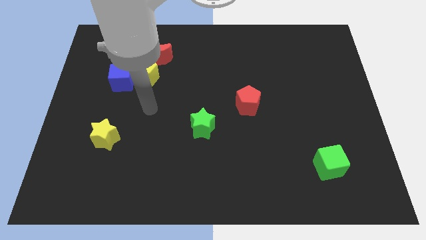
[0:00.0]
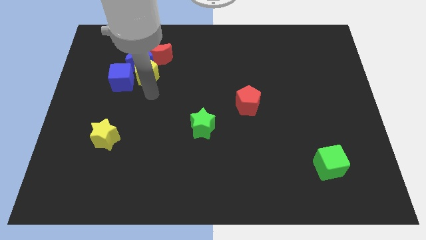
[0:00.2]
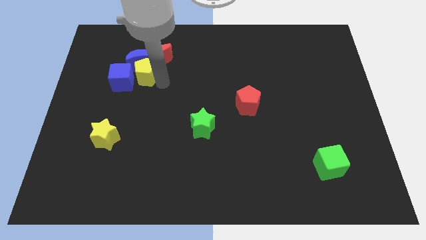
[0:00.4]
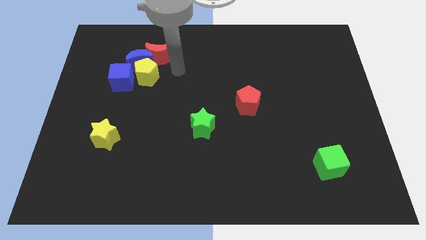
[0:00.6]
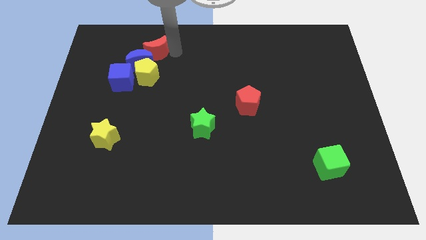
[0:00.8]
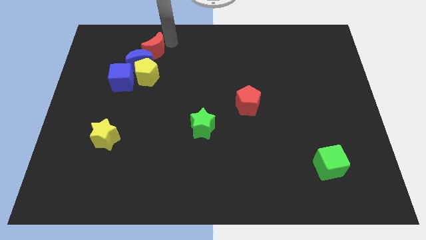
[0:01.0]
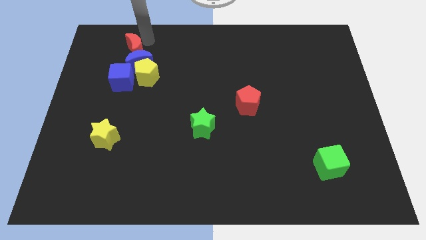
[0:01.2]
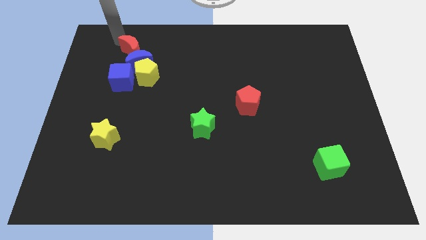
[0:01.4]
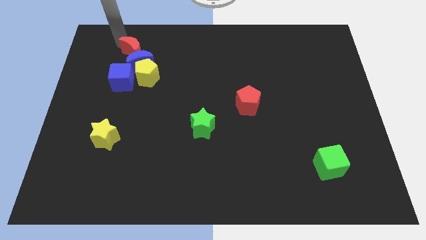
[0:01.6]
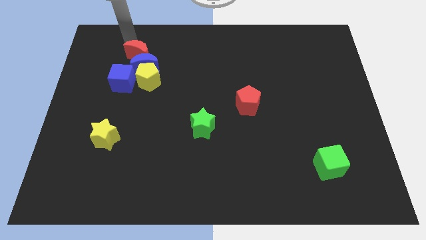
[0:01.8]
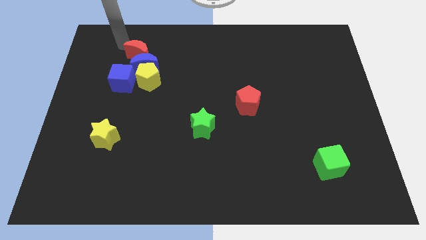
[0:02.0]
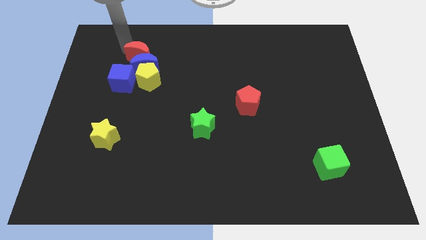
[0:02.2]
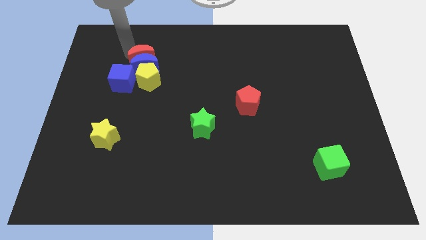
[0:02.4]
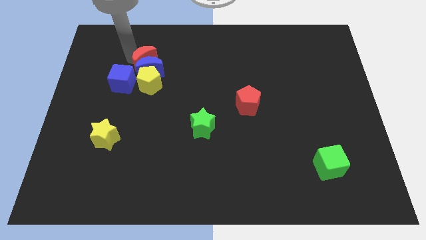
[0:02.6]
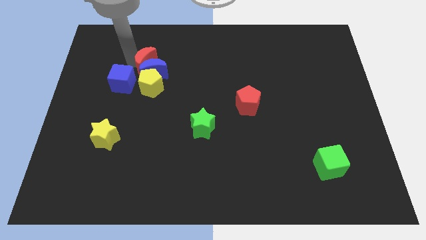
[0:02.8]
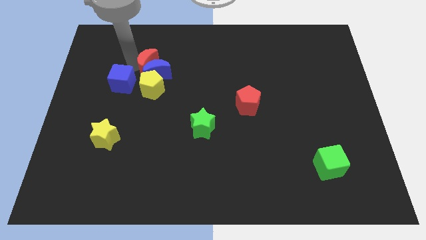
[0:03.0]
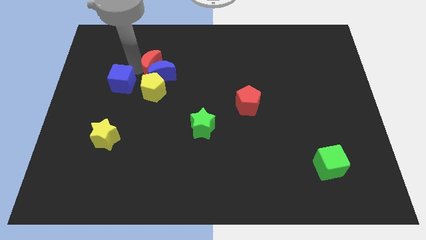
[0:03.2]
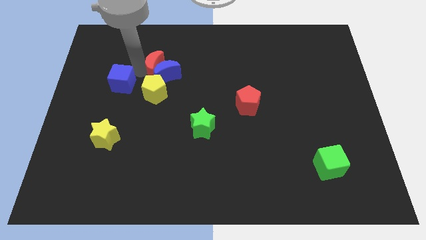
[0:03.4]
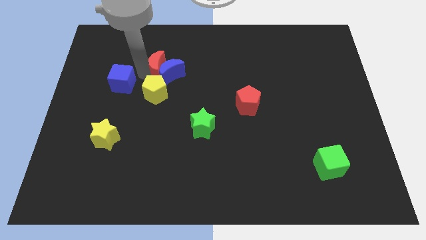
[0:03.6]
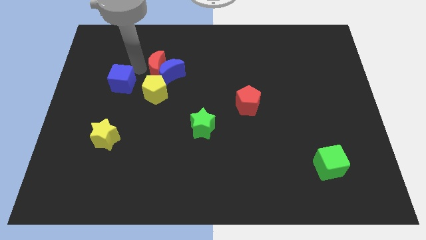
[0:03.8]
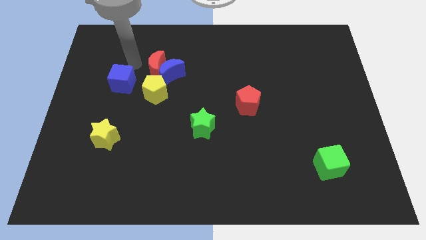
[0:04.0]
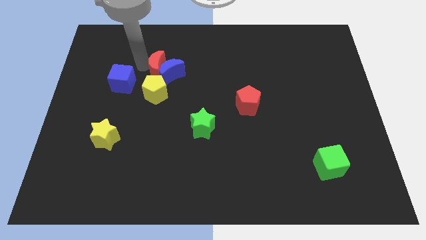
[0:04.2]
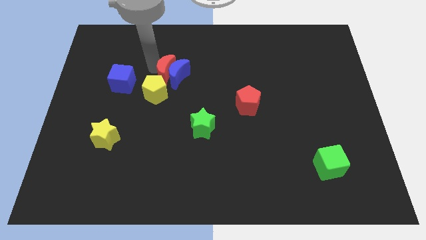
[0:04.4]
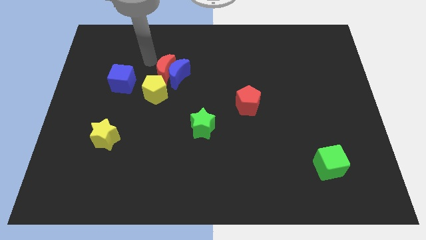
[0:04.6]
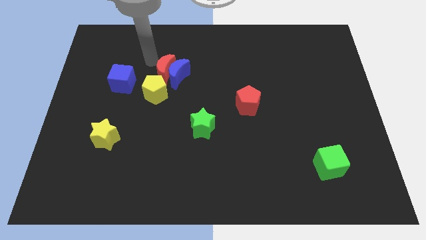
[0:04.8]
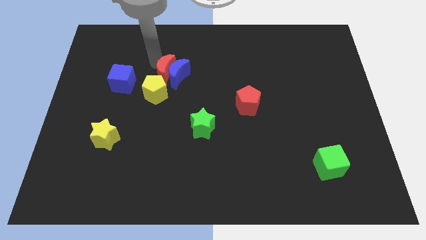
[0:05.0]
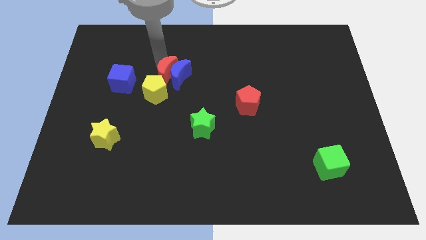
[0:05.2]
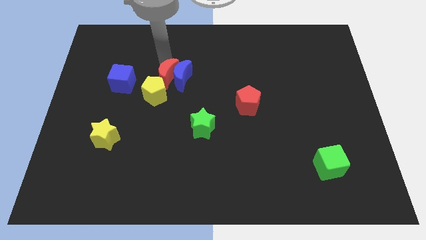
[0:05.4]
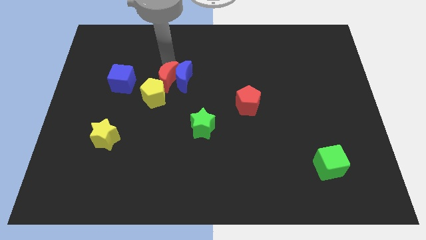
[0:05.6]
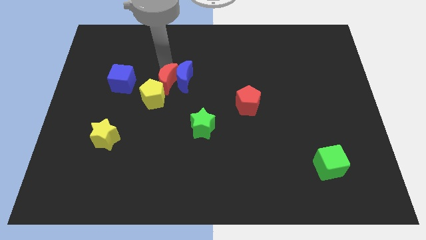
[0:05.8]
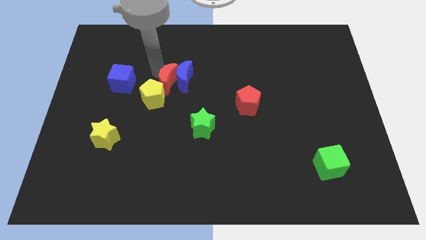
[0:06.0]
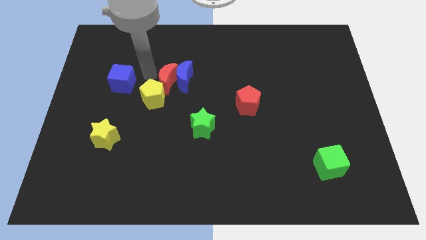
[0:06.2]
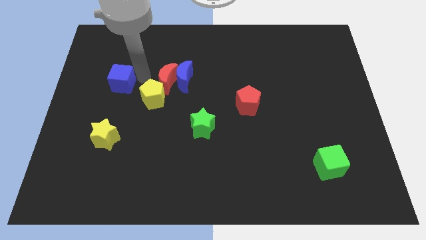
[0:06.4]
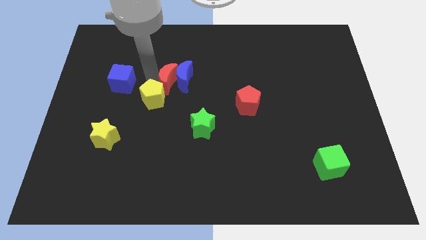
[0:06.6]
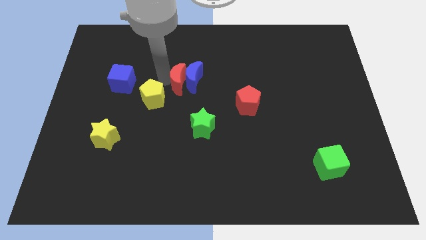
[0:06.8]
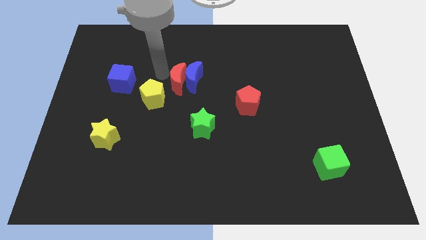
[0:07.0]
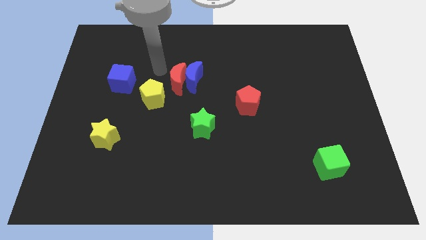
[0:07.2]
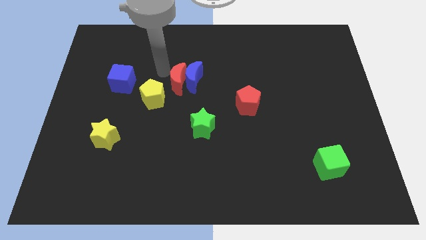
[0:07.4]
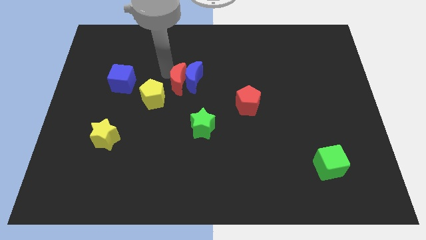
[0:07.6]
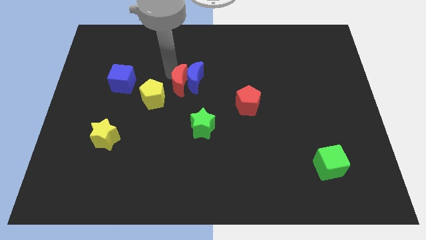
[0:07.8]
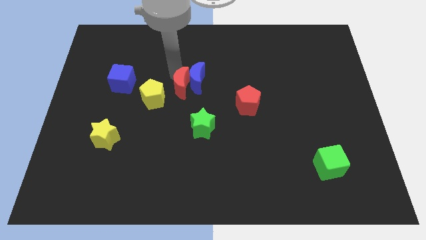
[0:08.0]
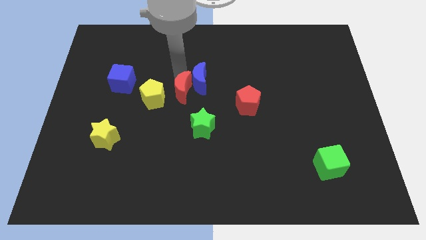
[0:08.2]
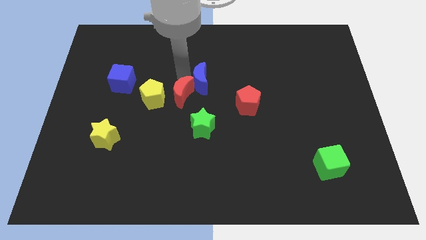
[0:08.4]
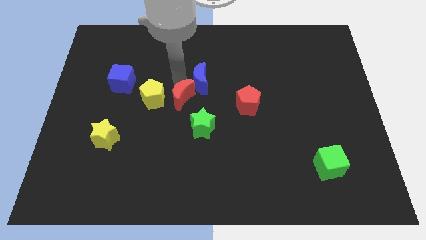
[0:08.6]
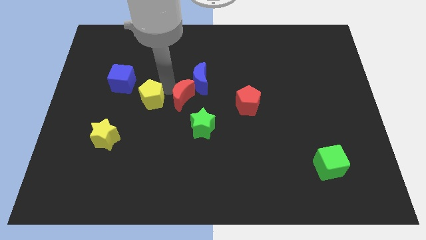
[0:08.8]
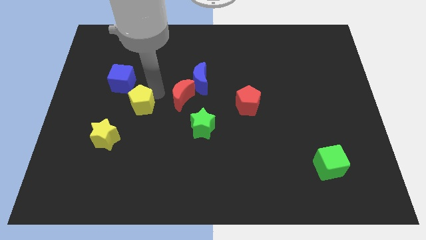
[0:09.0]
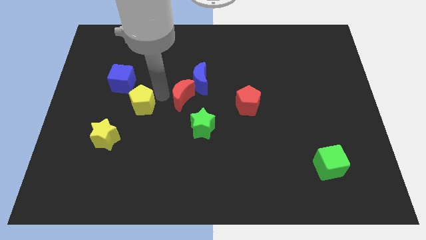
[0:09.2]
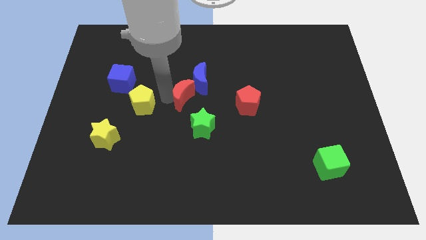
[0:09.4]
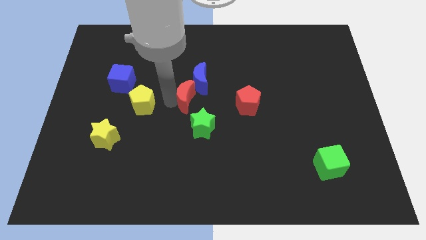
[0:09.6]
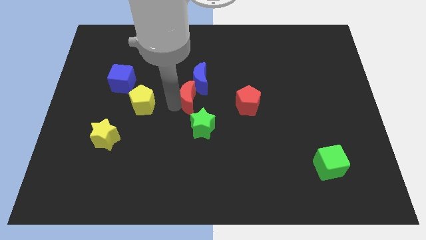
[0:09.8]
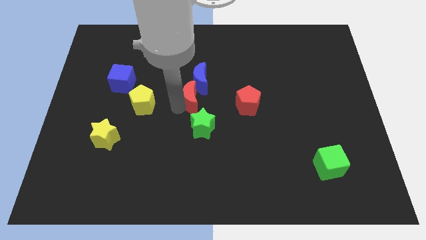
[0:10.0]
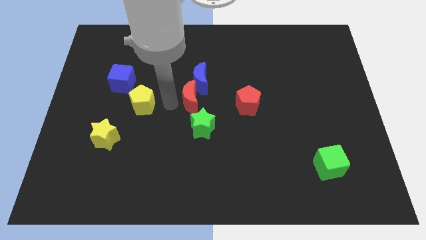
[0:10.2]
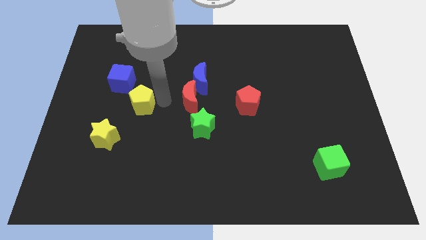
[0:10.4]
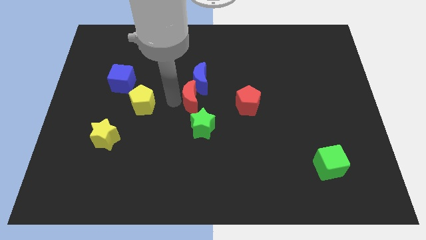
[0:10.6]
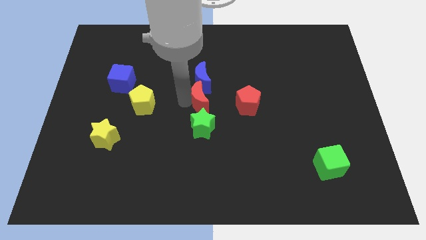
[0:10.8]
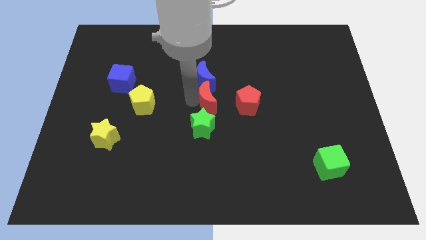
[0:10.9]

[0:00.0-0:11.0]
push the red moon to the top right side of the green star

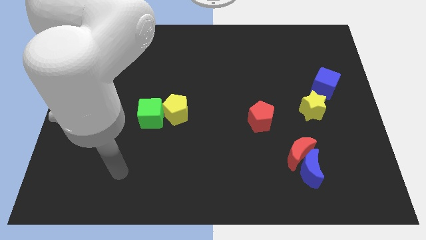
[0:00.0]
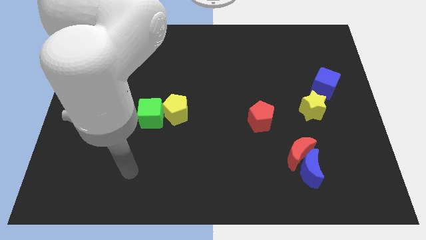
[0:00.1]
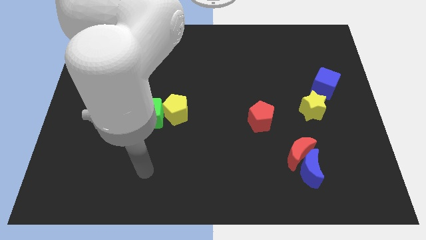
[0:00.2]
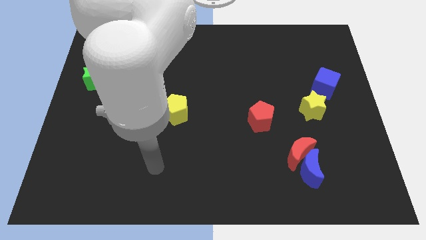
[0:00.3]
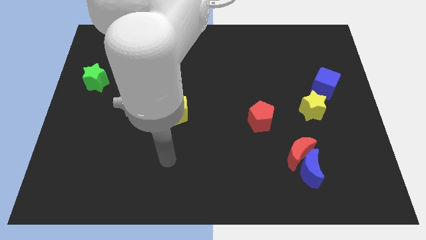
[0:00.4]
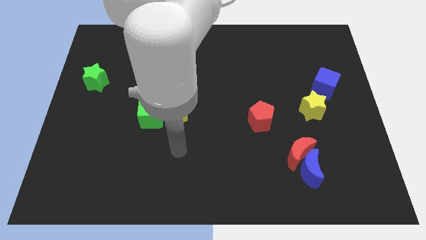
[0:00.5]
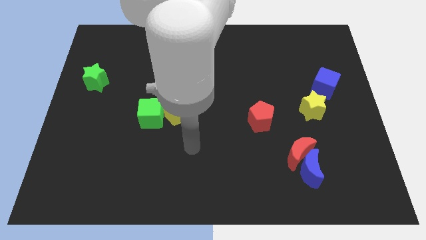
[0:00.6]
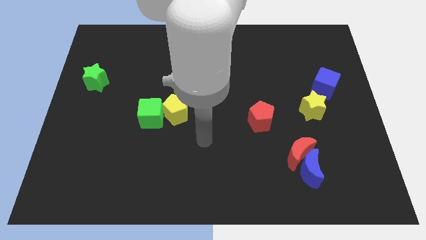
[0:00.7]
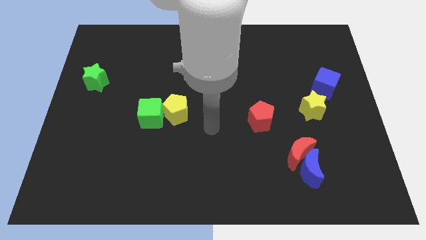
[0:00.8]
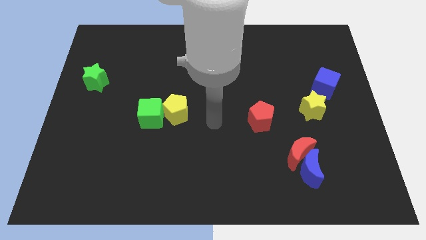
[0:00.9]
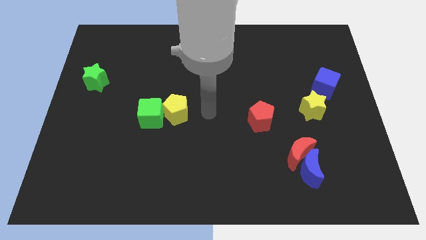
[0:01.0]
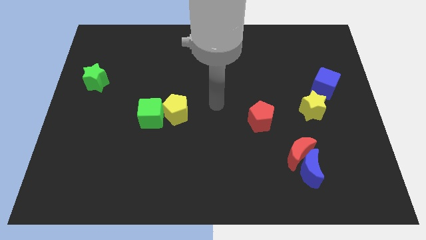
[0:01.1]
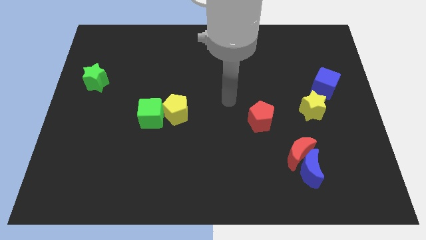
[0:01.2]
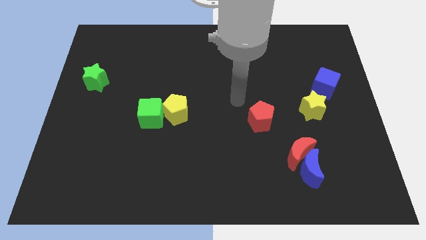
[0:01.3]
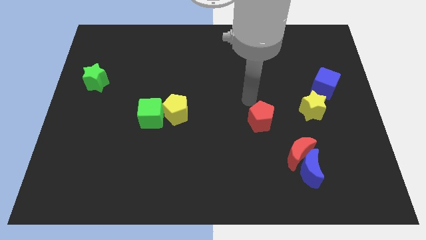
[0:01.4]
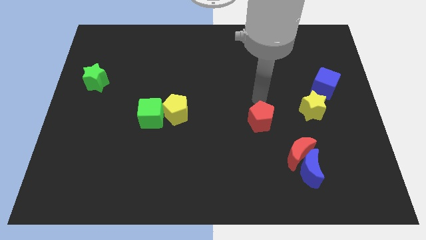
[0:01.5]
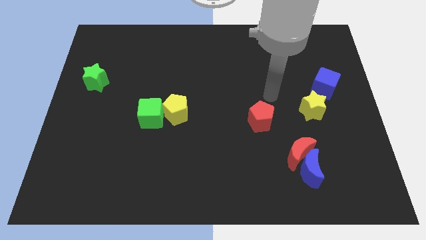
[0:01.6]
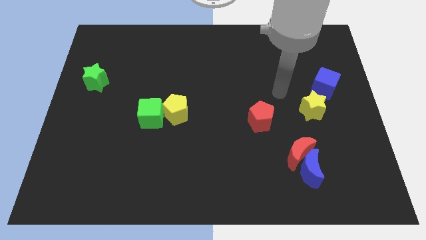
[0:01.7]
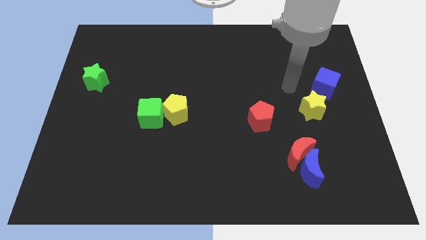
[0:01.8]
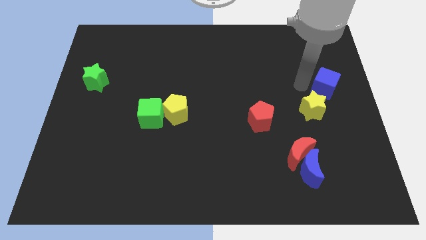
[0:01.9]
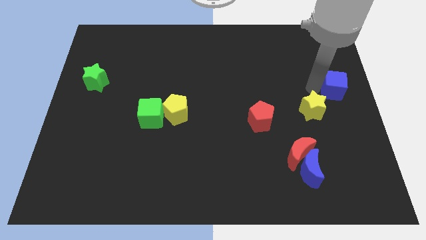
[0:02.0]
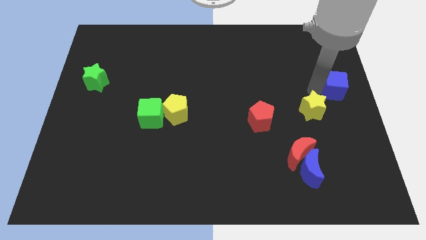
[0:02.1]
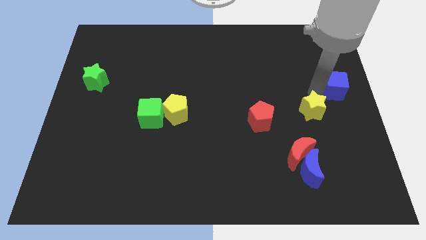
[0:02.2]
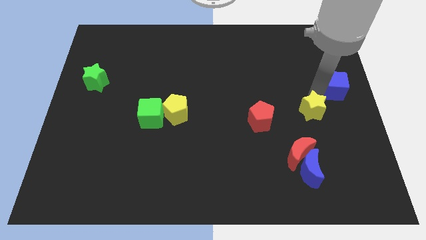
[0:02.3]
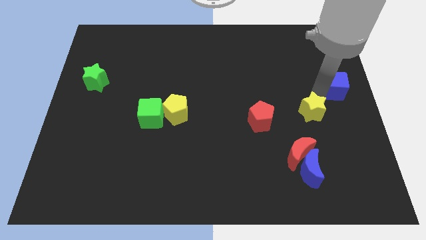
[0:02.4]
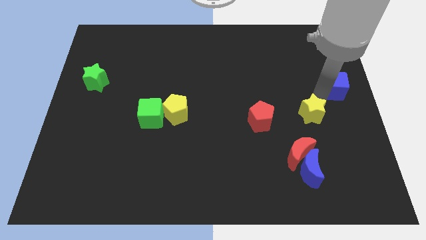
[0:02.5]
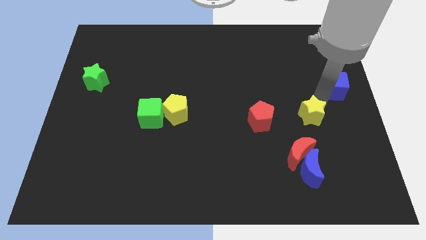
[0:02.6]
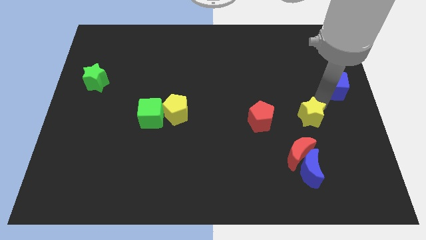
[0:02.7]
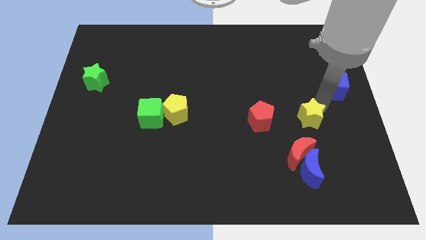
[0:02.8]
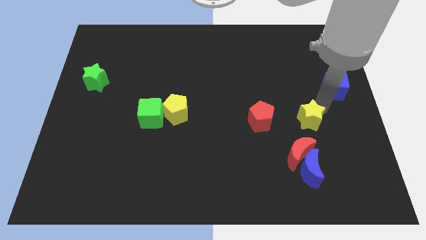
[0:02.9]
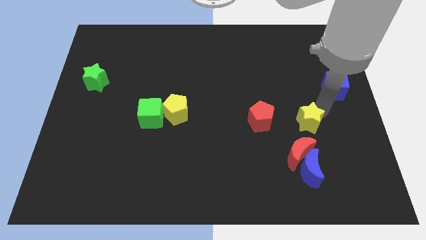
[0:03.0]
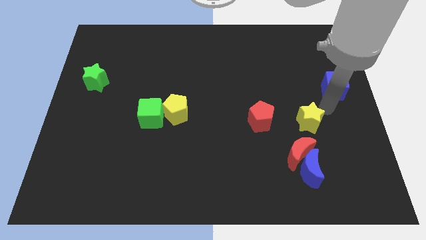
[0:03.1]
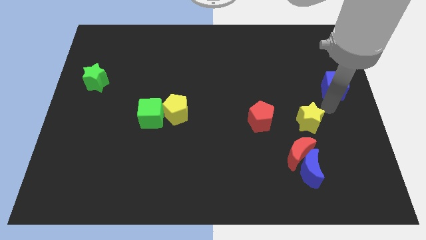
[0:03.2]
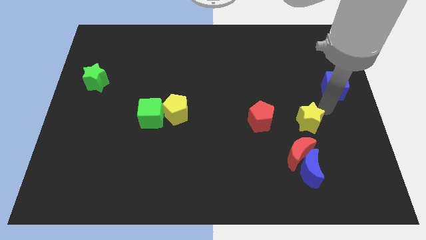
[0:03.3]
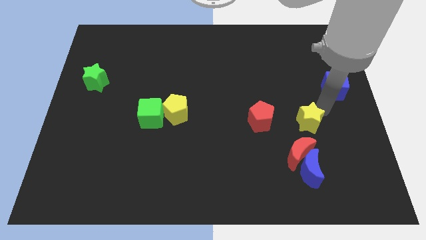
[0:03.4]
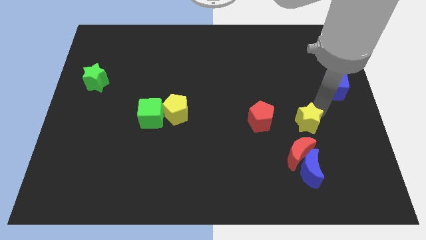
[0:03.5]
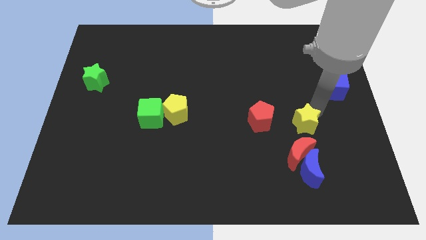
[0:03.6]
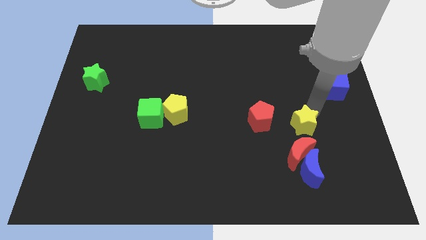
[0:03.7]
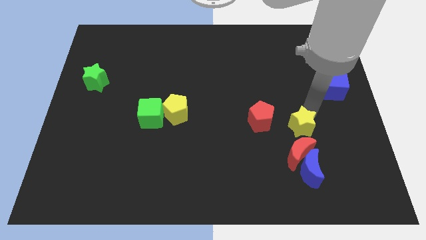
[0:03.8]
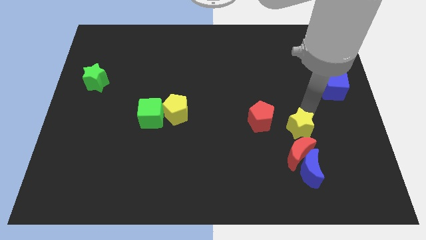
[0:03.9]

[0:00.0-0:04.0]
put the yellow star diagonally down and to the right of the red pentagon
